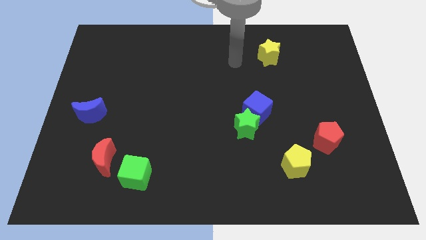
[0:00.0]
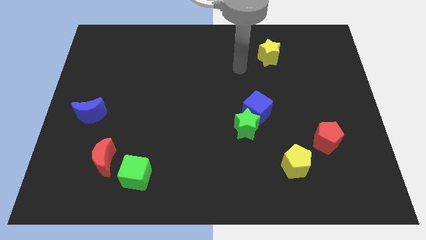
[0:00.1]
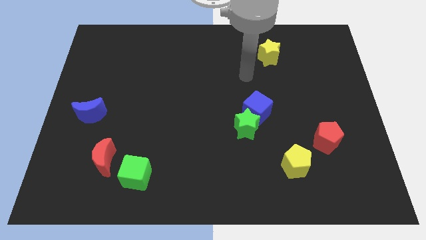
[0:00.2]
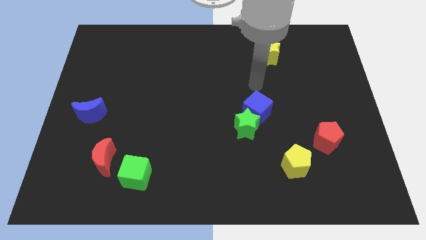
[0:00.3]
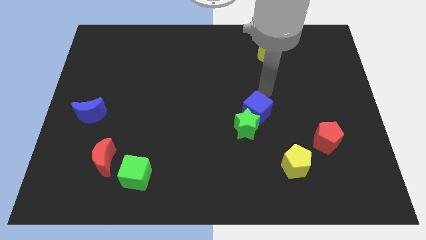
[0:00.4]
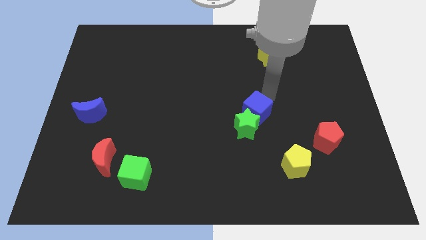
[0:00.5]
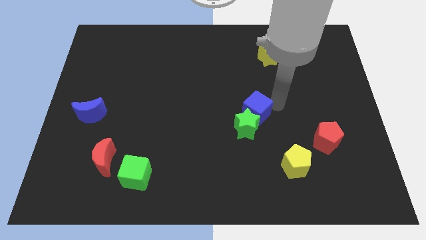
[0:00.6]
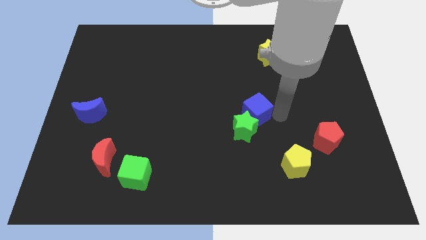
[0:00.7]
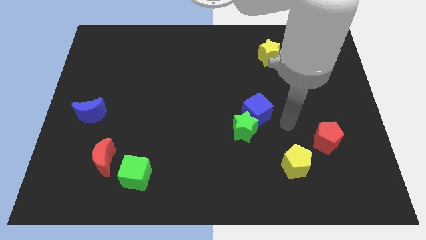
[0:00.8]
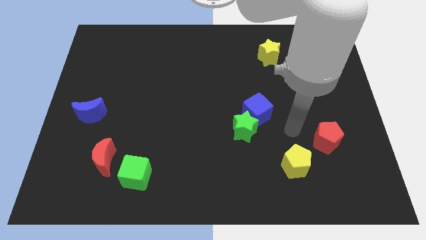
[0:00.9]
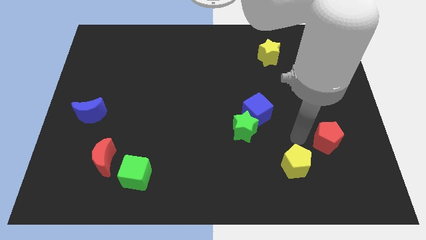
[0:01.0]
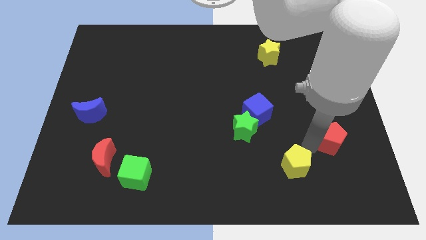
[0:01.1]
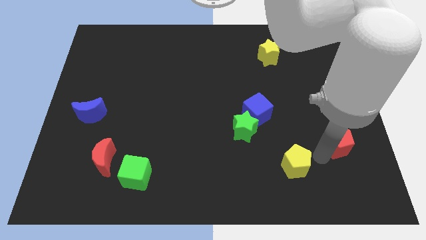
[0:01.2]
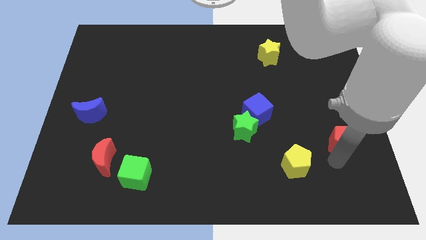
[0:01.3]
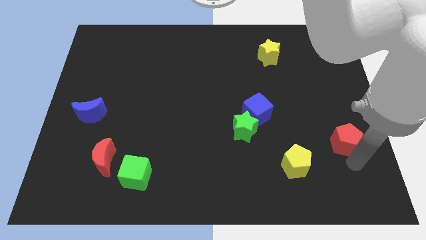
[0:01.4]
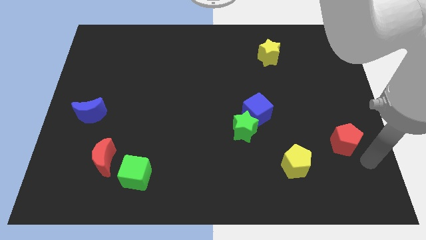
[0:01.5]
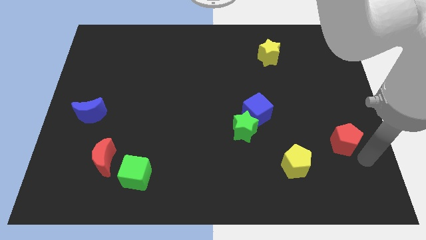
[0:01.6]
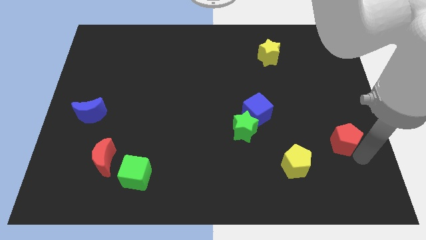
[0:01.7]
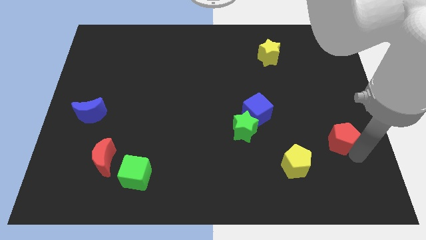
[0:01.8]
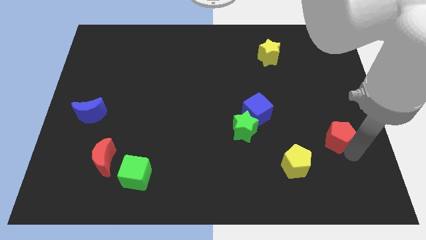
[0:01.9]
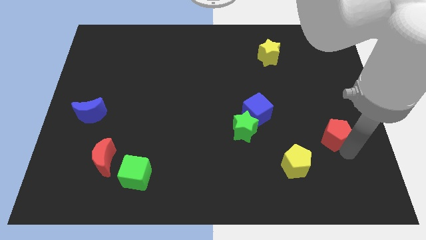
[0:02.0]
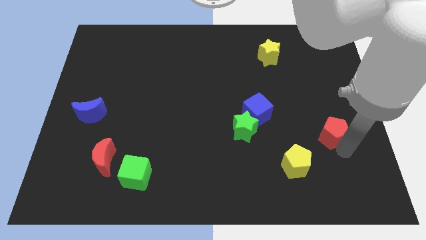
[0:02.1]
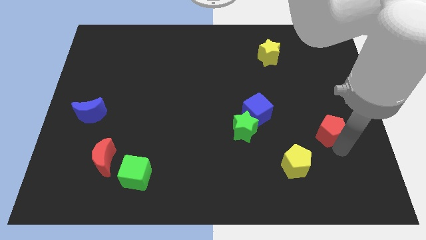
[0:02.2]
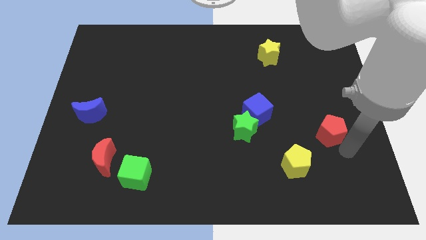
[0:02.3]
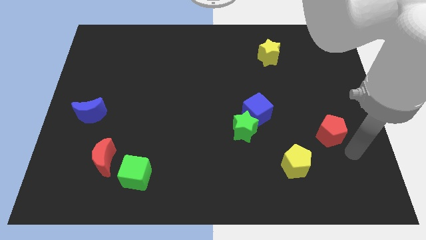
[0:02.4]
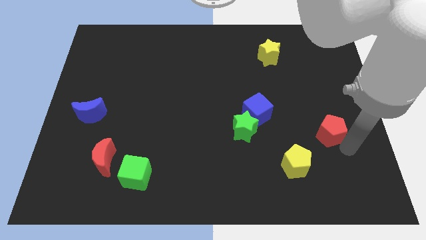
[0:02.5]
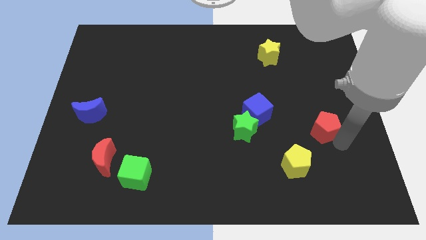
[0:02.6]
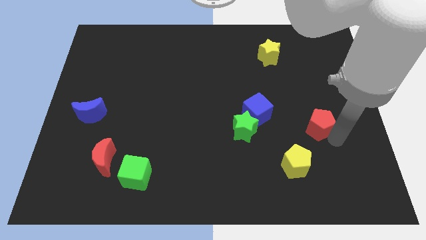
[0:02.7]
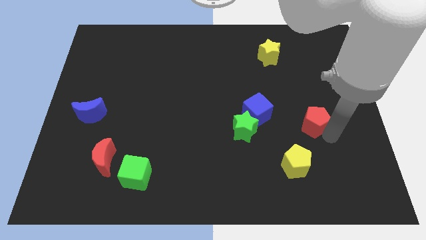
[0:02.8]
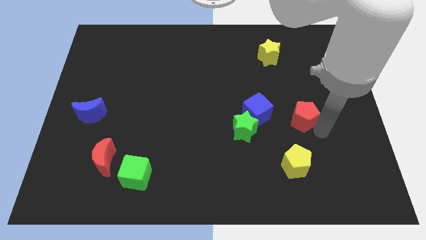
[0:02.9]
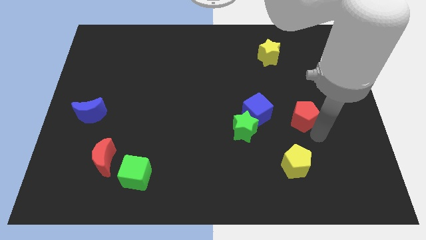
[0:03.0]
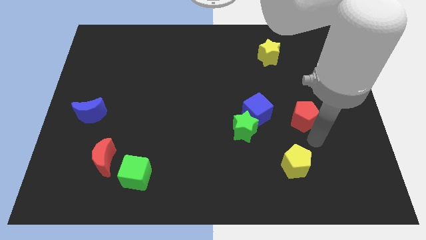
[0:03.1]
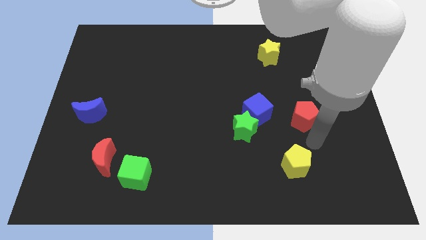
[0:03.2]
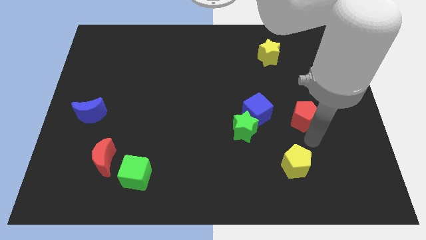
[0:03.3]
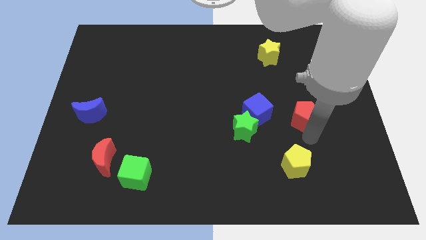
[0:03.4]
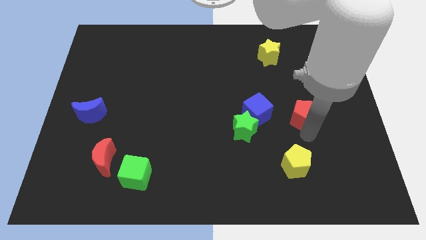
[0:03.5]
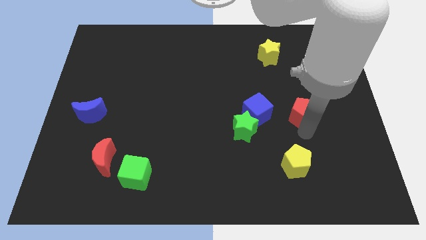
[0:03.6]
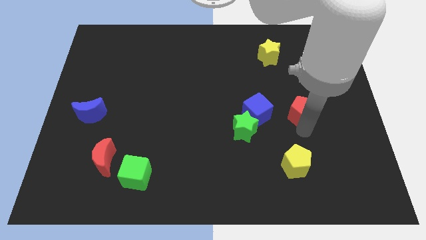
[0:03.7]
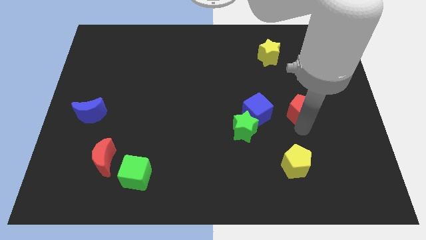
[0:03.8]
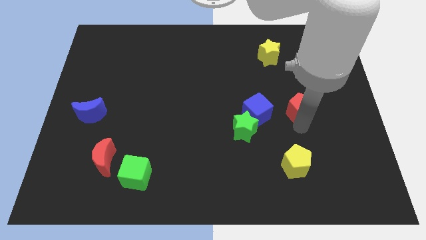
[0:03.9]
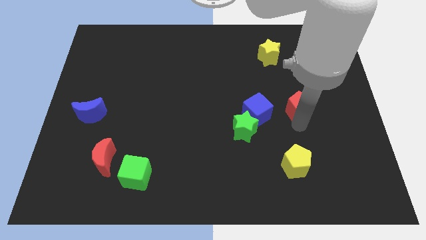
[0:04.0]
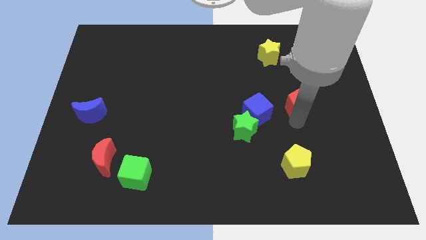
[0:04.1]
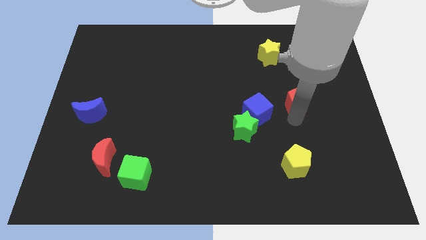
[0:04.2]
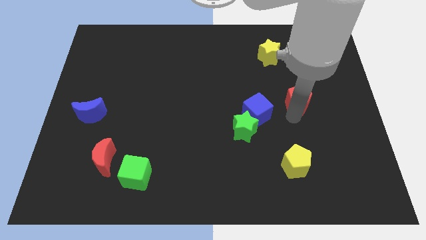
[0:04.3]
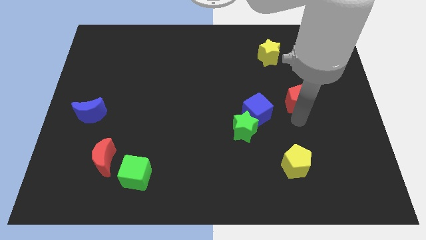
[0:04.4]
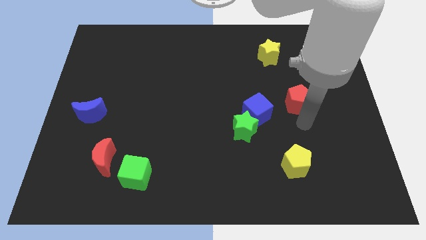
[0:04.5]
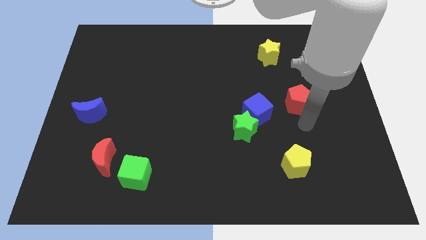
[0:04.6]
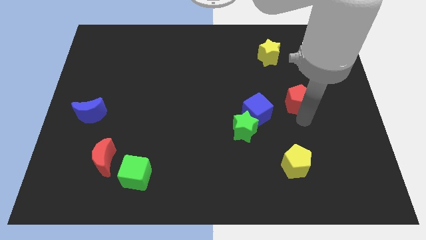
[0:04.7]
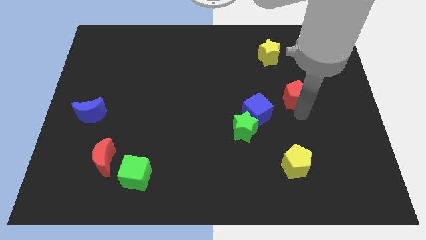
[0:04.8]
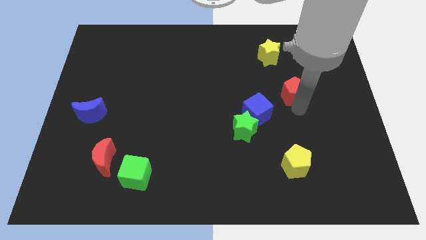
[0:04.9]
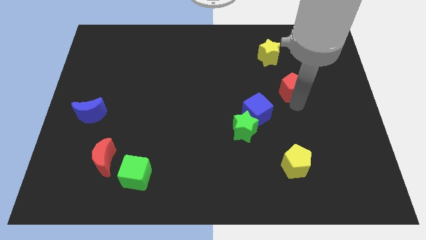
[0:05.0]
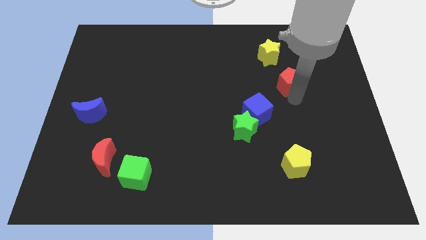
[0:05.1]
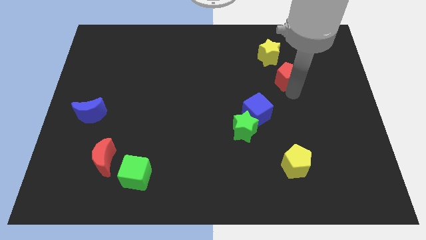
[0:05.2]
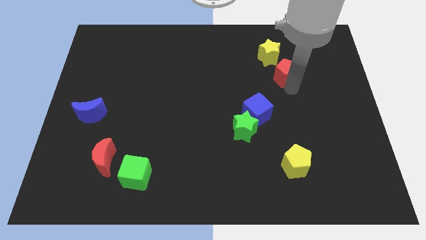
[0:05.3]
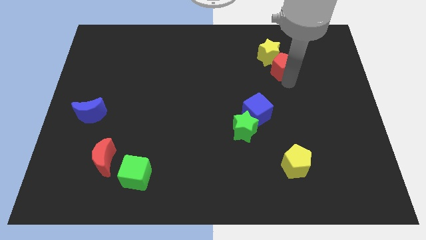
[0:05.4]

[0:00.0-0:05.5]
push the red pentagon close to the yellow star

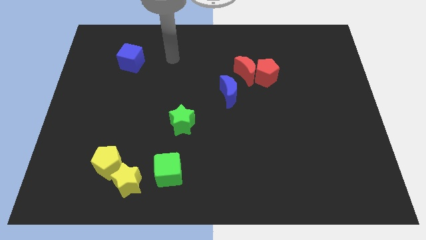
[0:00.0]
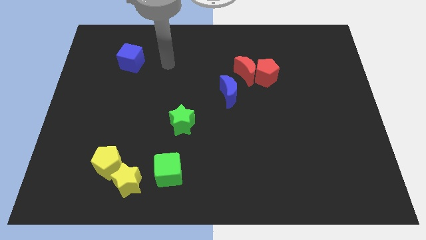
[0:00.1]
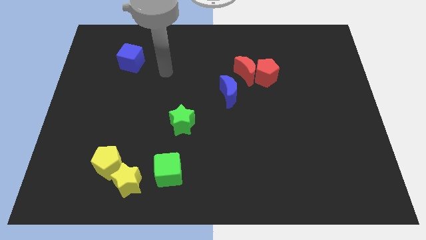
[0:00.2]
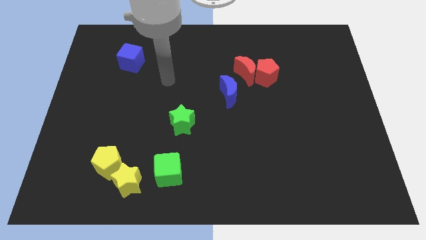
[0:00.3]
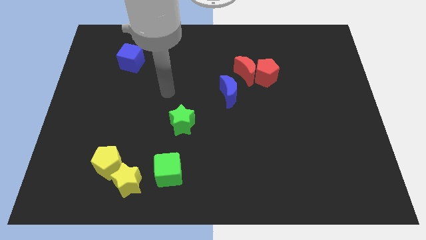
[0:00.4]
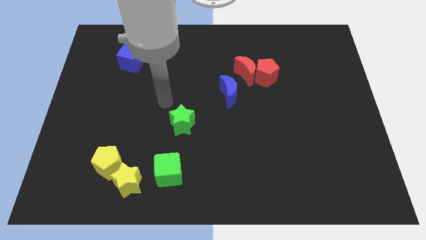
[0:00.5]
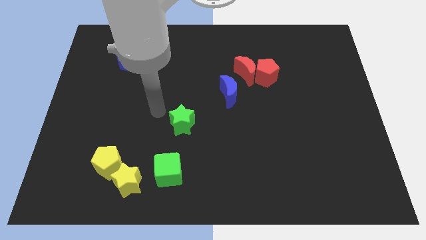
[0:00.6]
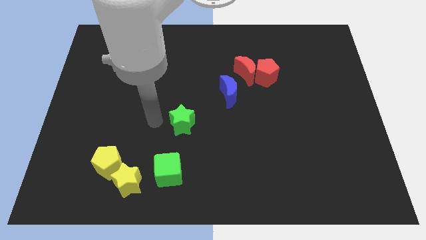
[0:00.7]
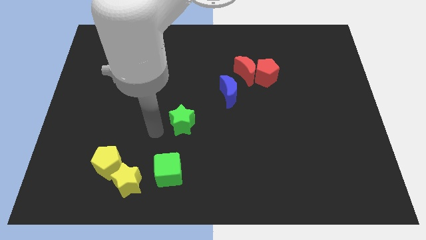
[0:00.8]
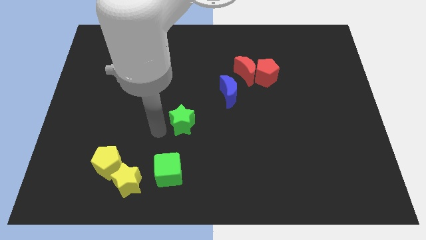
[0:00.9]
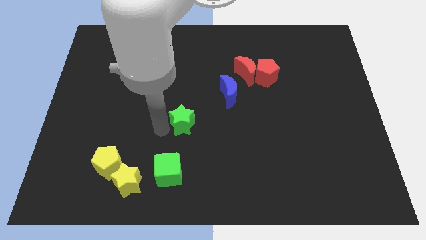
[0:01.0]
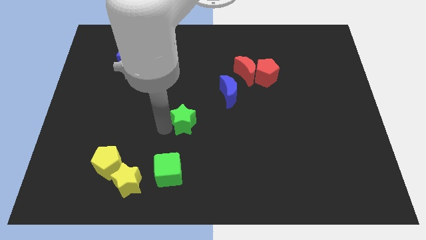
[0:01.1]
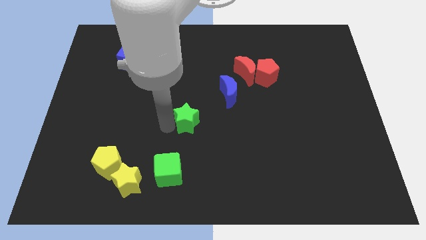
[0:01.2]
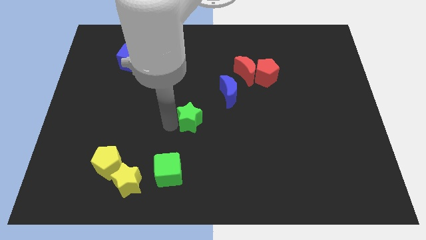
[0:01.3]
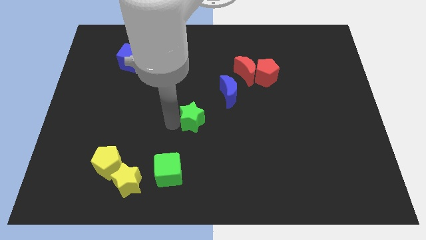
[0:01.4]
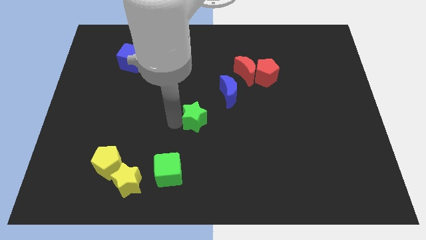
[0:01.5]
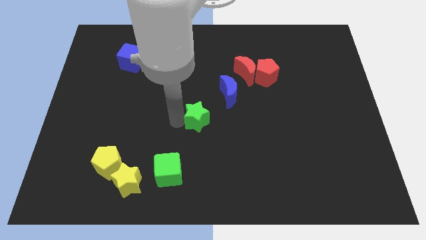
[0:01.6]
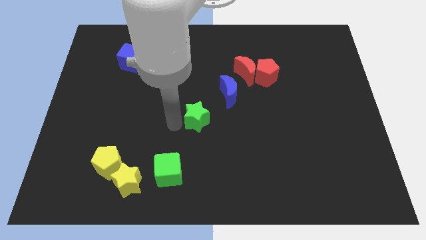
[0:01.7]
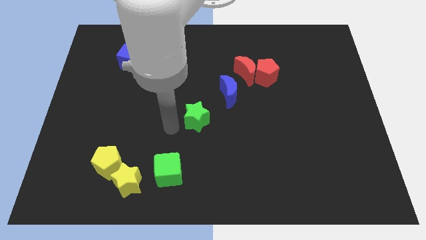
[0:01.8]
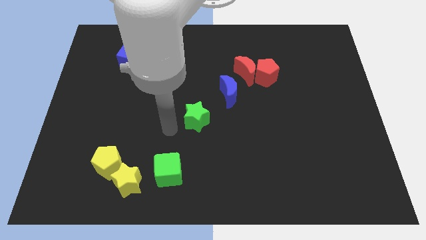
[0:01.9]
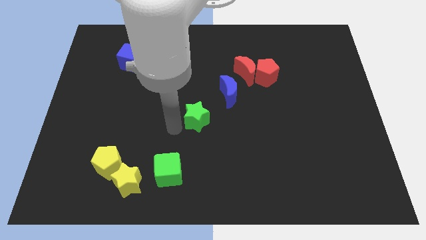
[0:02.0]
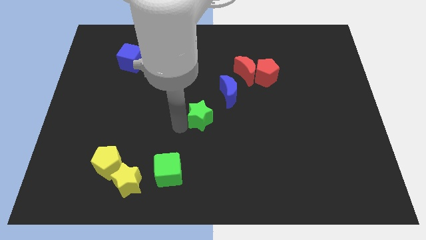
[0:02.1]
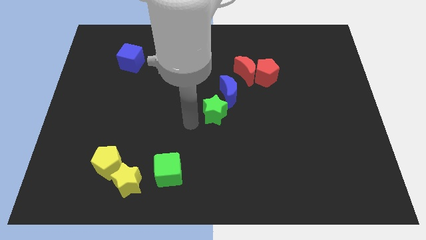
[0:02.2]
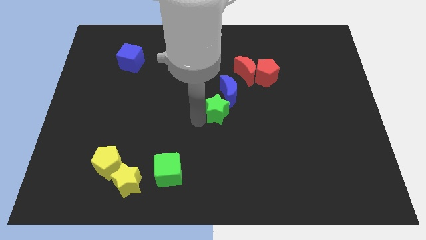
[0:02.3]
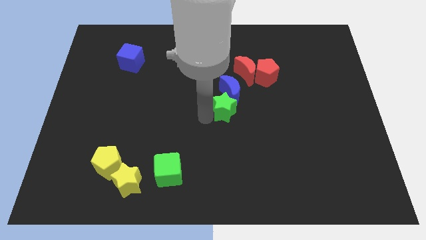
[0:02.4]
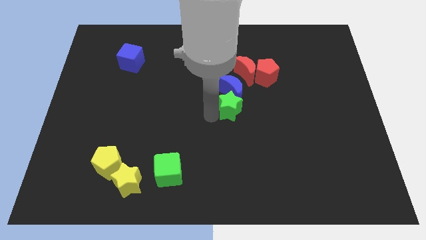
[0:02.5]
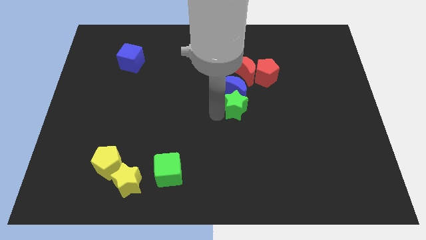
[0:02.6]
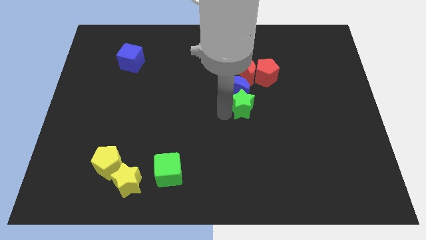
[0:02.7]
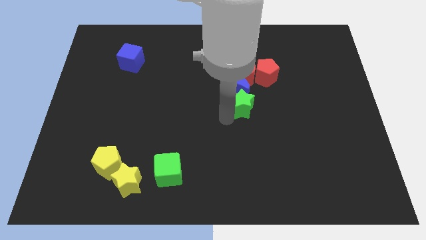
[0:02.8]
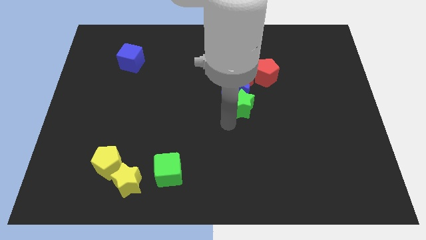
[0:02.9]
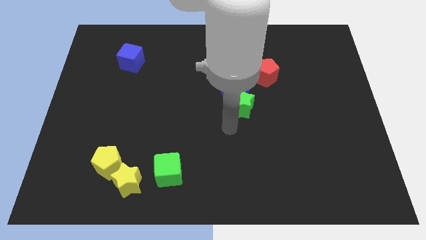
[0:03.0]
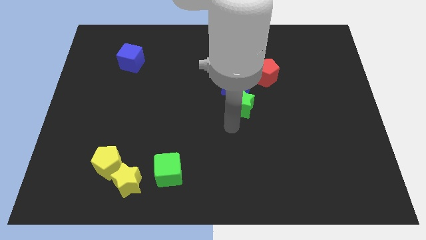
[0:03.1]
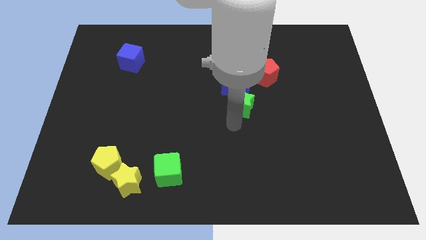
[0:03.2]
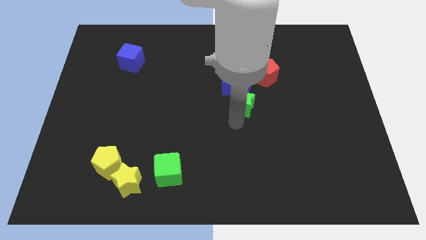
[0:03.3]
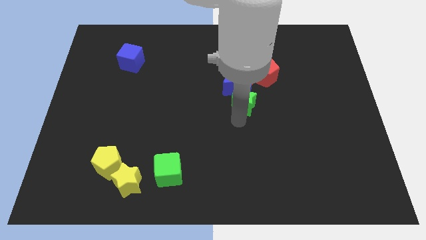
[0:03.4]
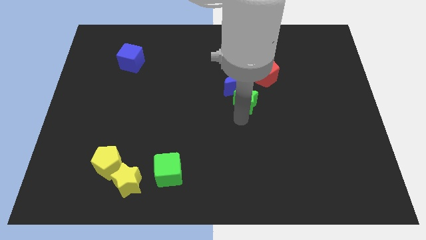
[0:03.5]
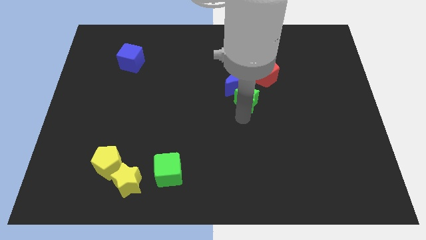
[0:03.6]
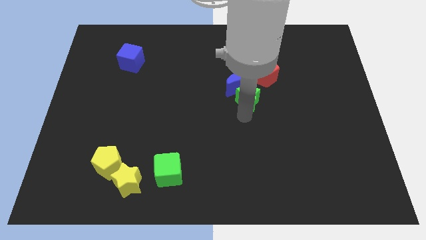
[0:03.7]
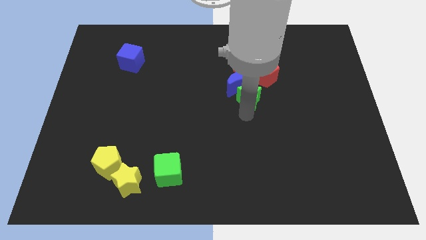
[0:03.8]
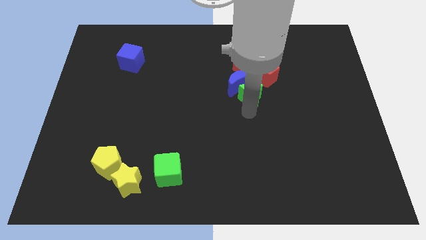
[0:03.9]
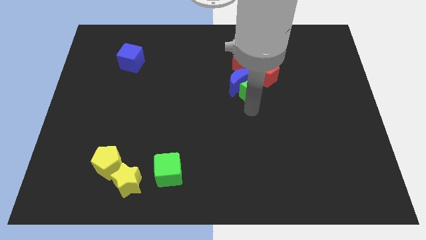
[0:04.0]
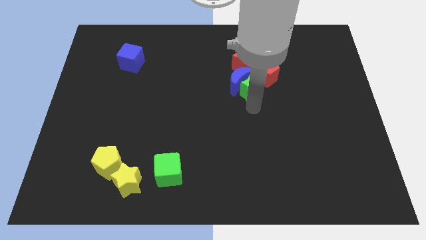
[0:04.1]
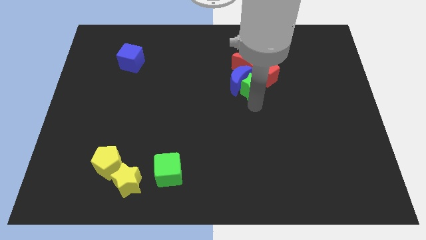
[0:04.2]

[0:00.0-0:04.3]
move the green star close to the red pentagon
